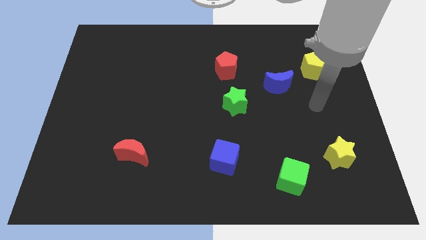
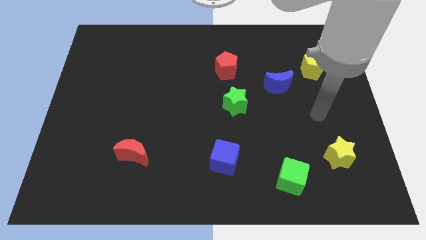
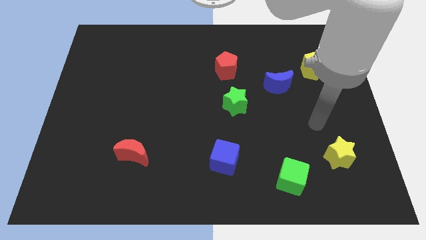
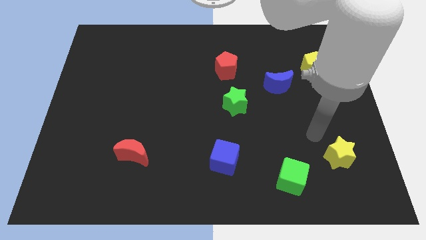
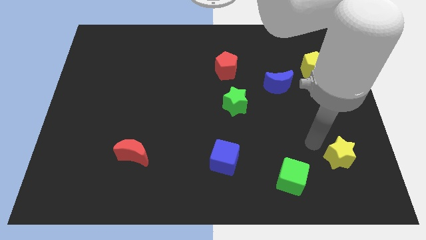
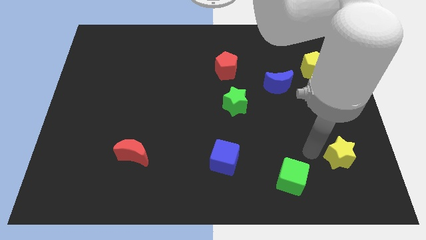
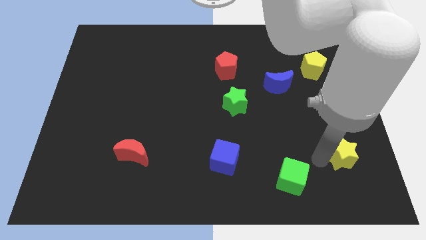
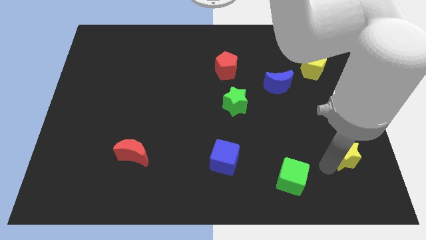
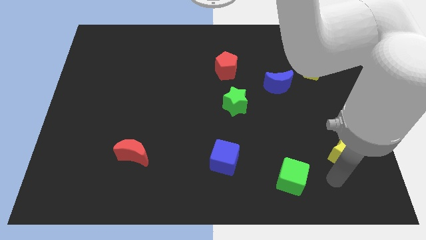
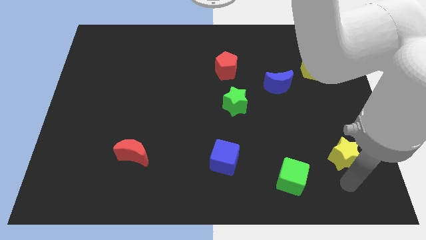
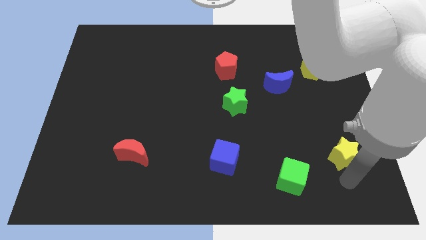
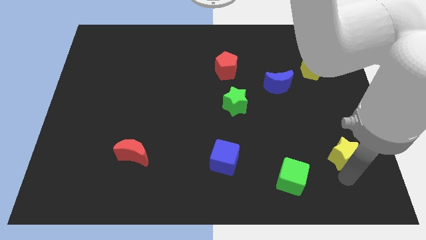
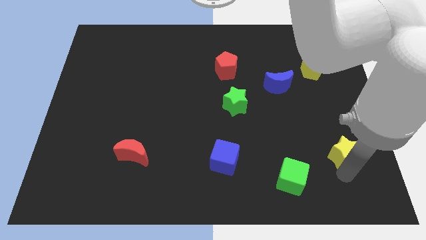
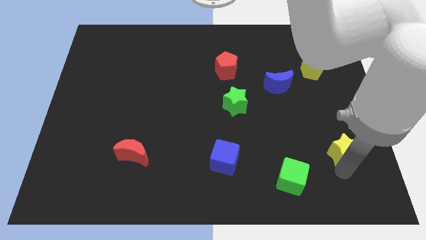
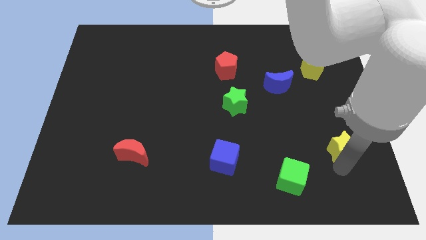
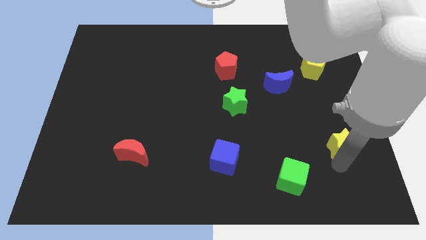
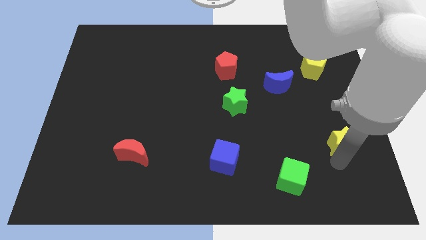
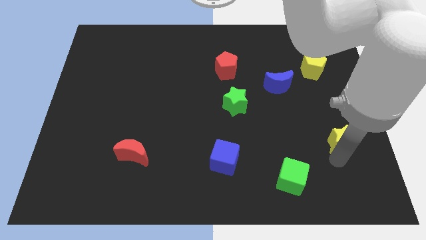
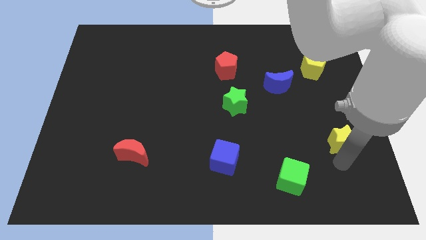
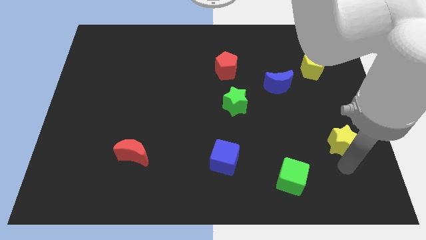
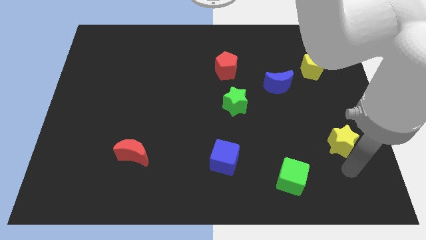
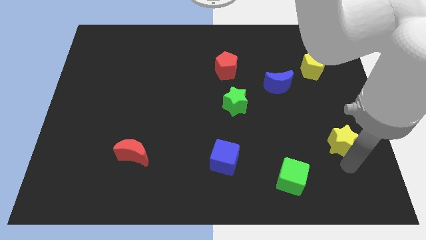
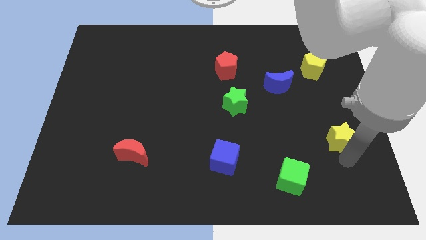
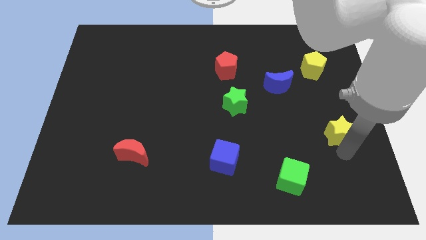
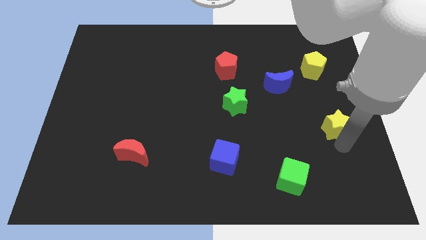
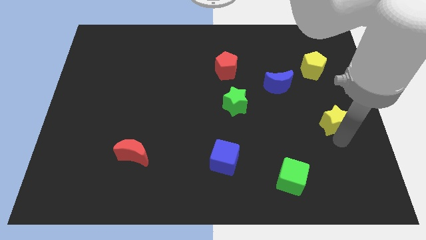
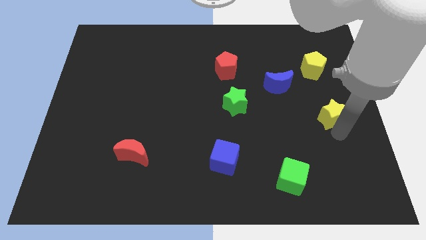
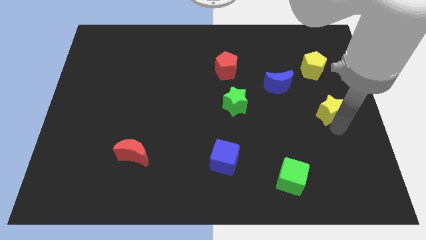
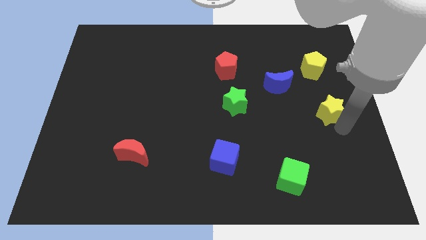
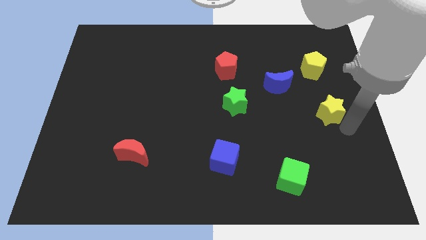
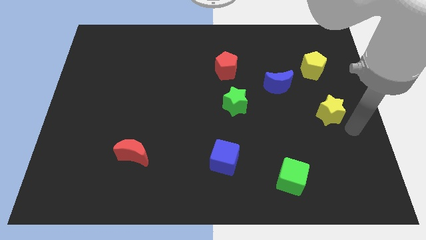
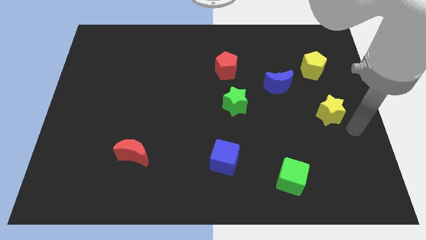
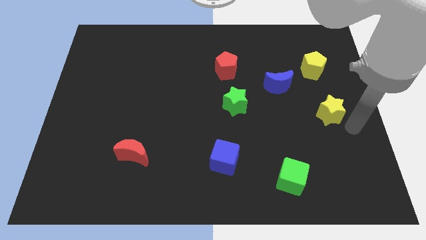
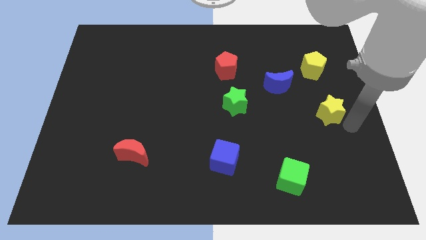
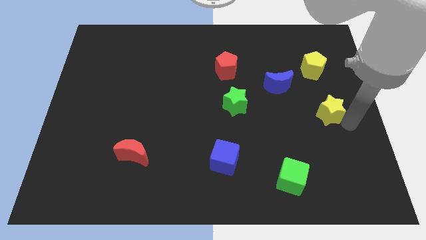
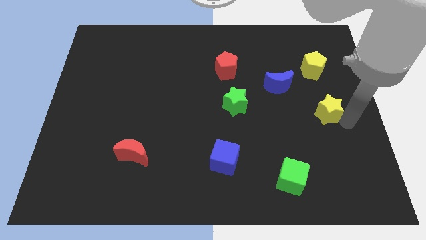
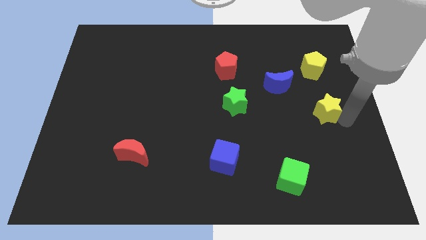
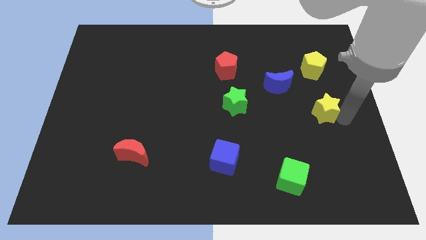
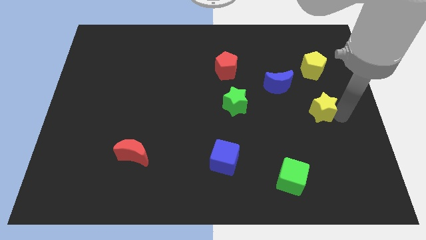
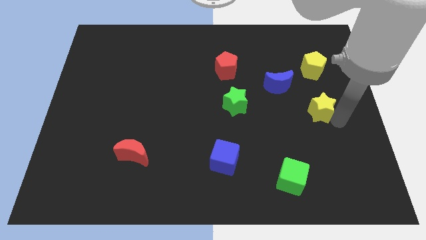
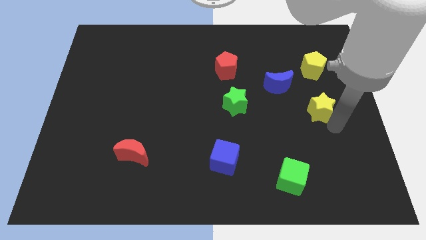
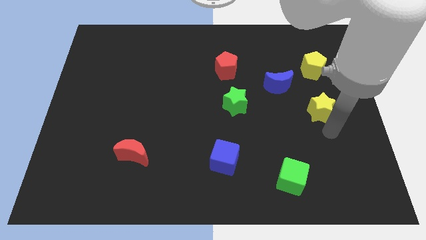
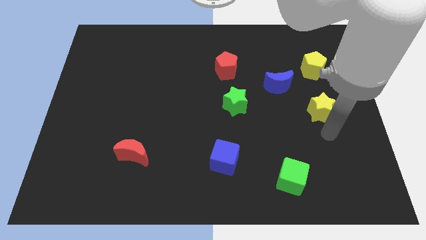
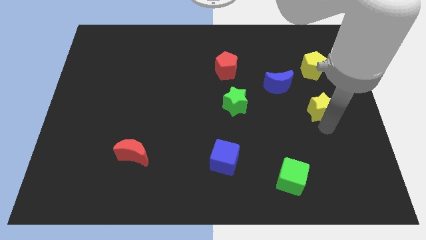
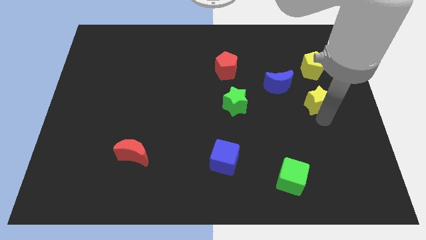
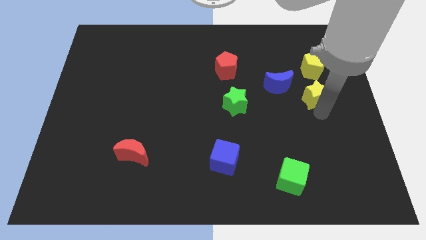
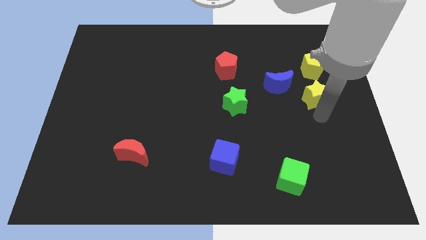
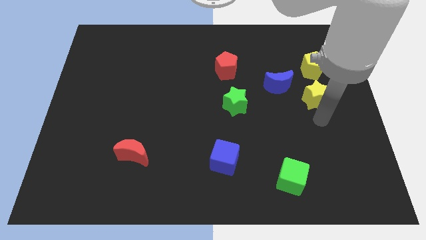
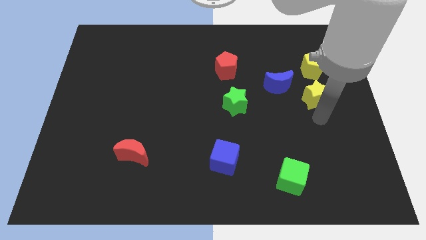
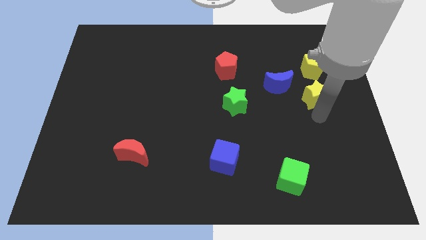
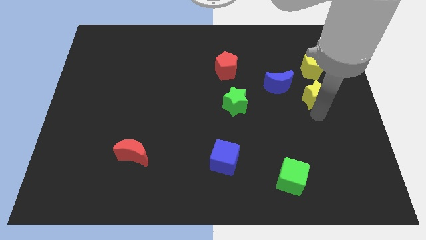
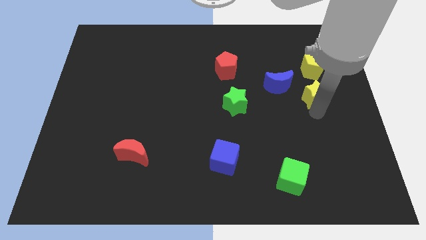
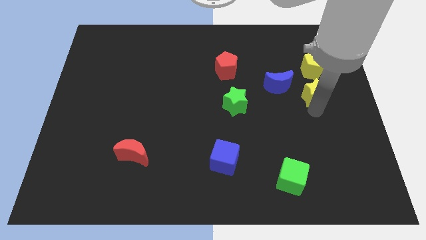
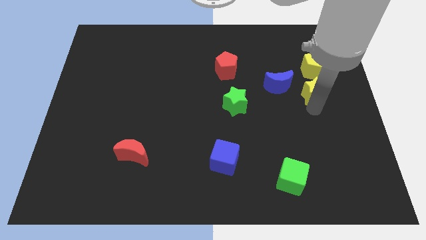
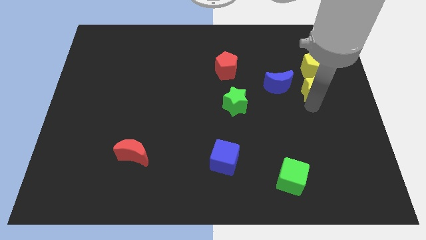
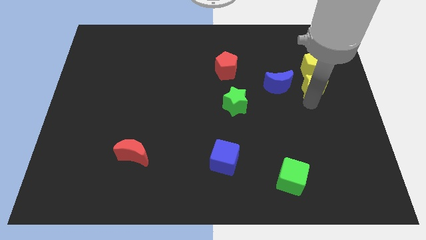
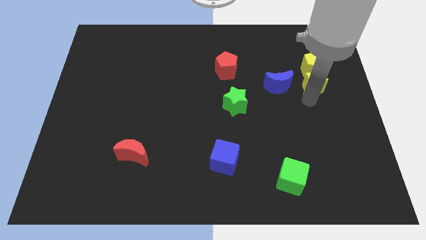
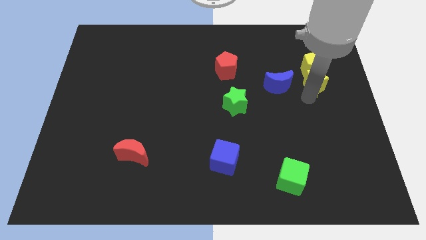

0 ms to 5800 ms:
move the yellow star to the yellow pentagon

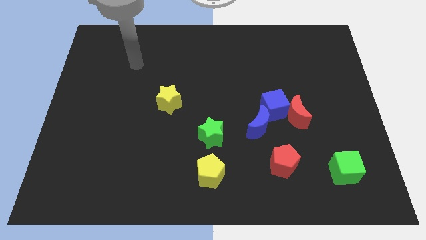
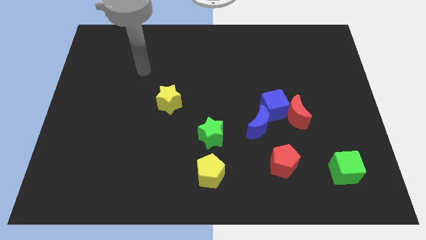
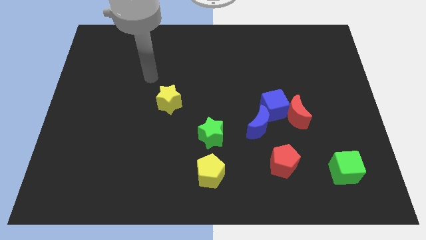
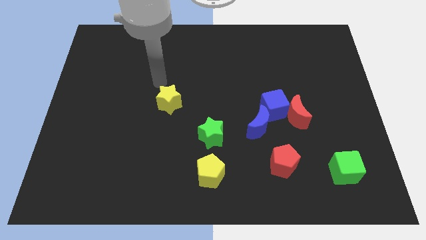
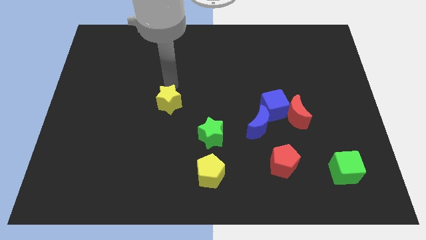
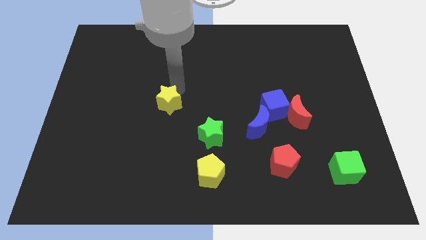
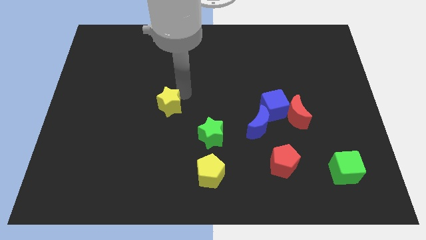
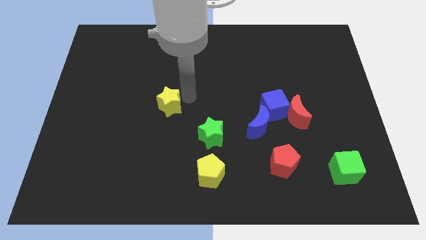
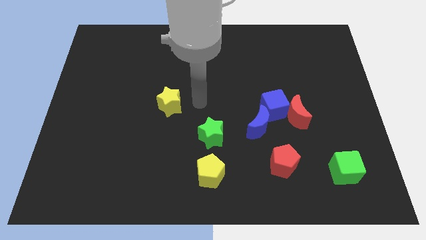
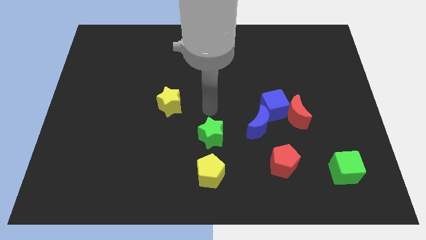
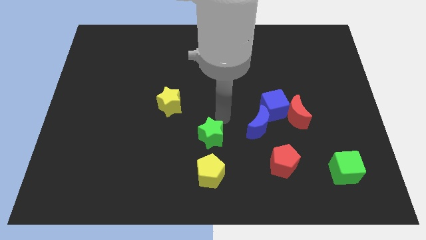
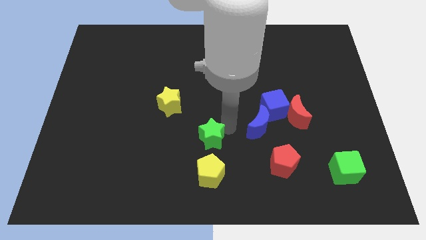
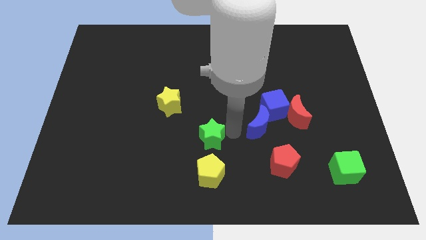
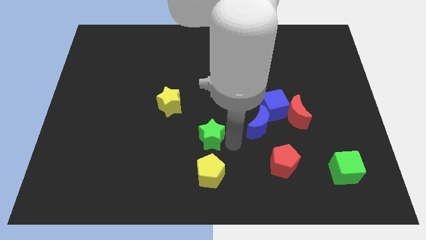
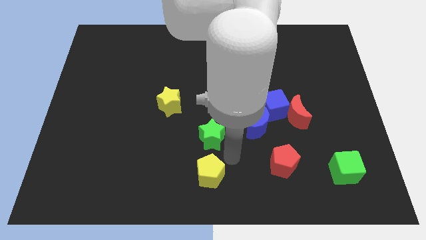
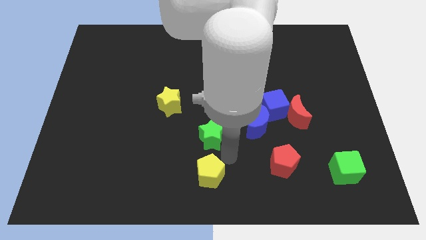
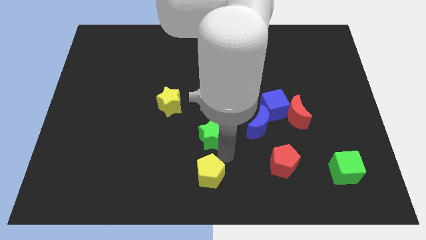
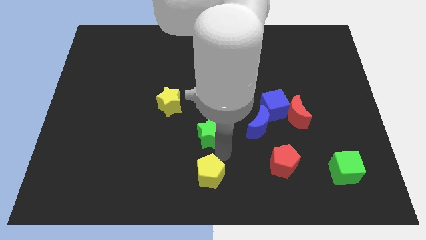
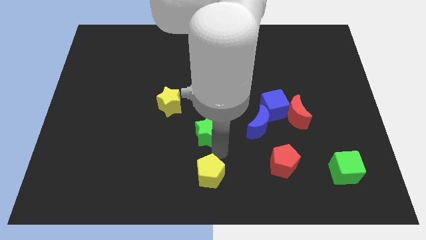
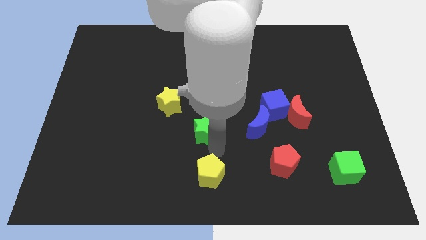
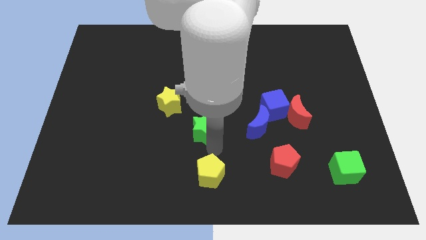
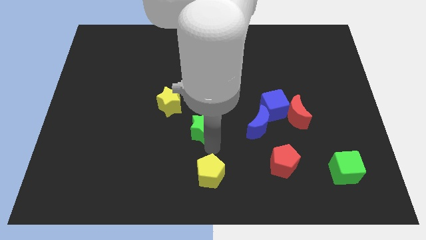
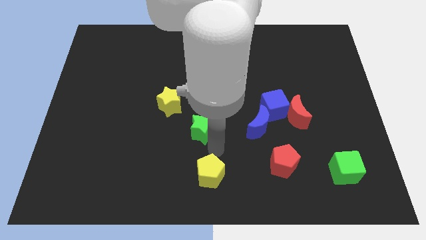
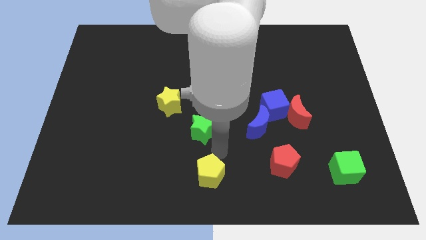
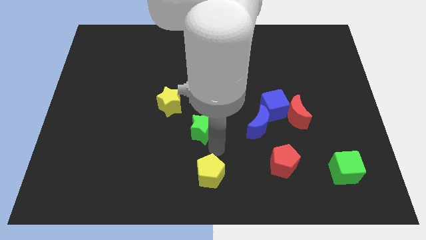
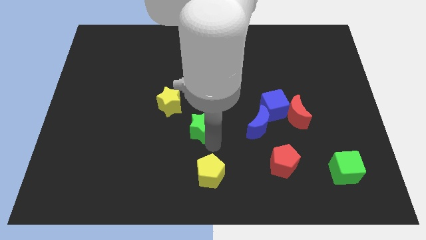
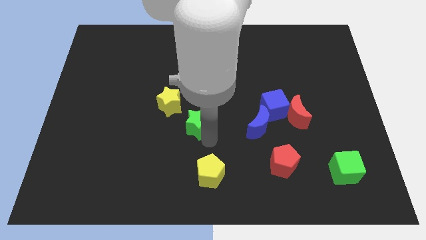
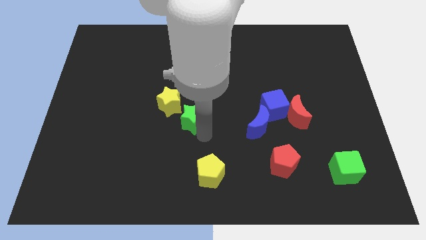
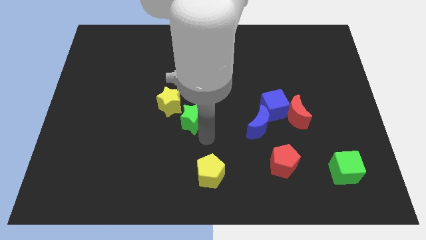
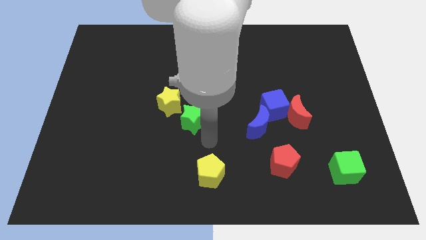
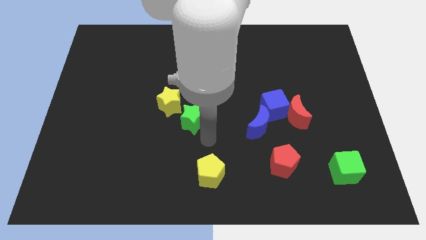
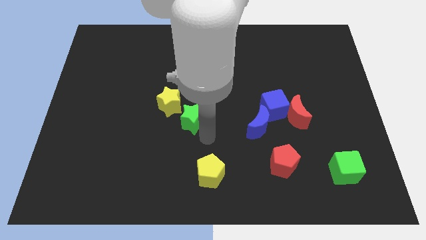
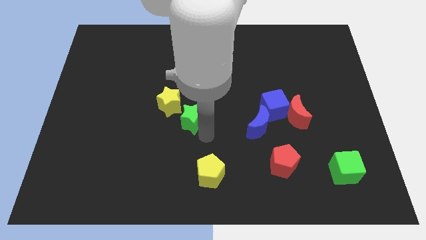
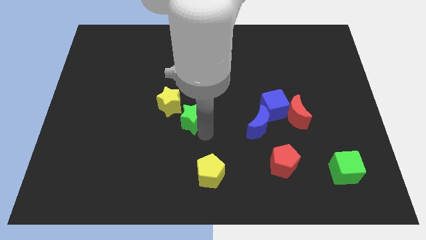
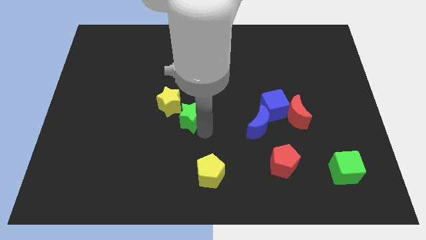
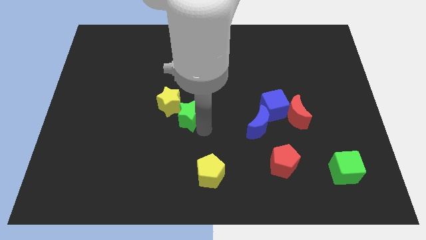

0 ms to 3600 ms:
put the green star close to the yellow star
